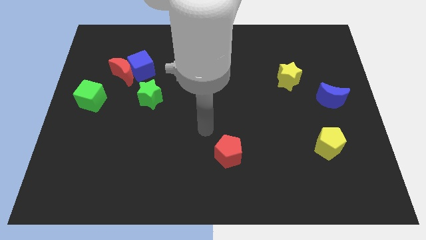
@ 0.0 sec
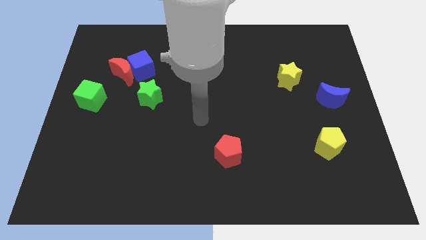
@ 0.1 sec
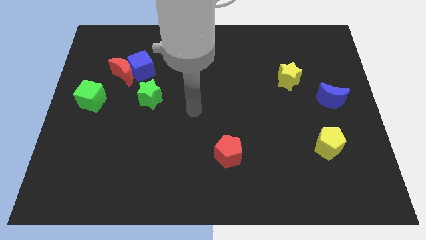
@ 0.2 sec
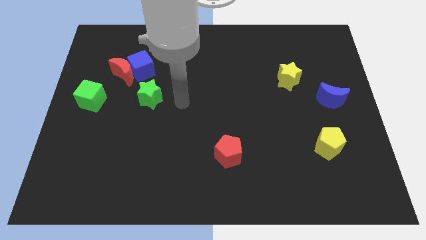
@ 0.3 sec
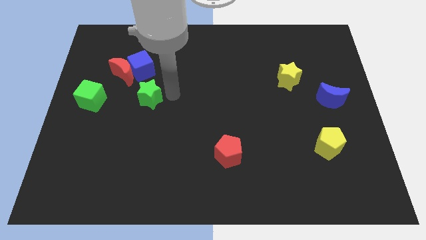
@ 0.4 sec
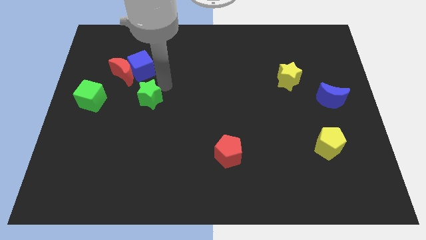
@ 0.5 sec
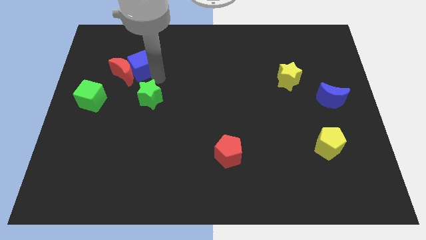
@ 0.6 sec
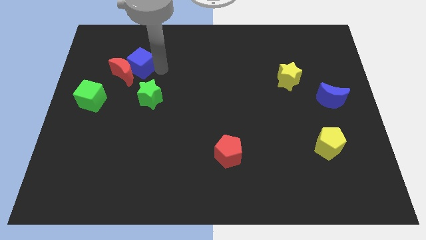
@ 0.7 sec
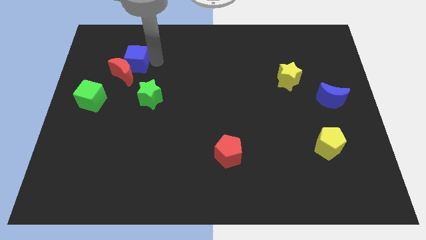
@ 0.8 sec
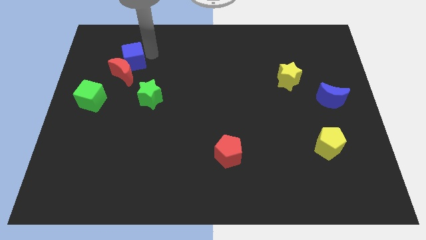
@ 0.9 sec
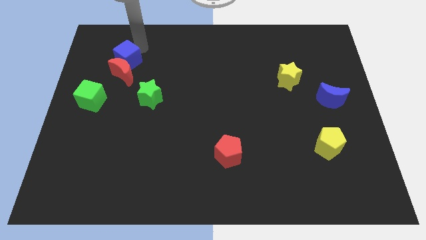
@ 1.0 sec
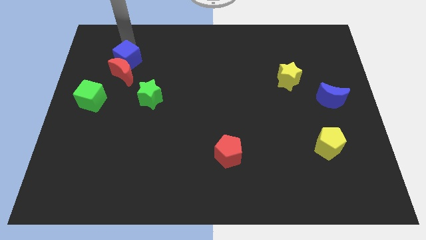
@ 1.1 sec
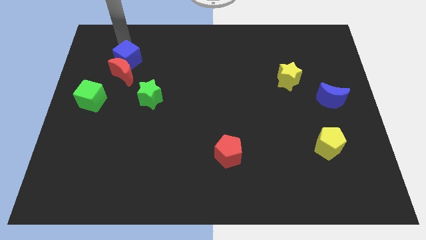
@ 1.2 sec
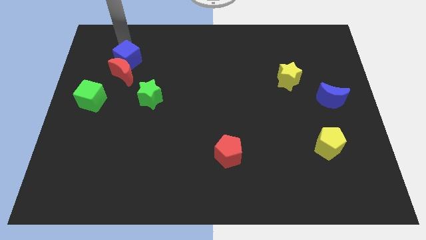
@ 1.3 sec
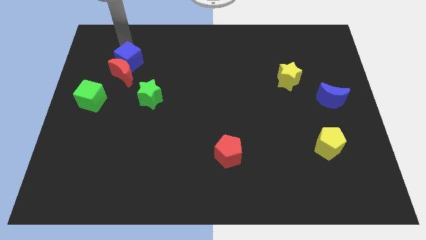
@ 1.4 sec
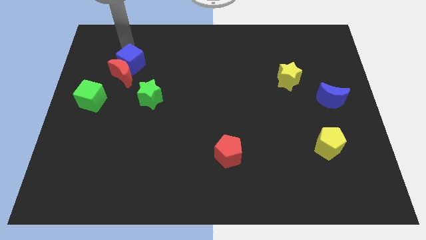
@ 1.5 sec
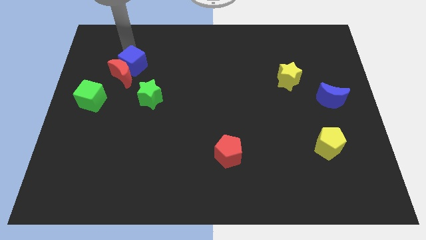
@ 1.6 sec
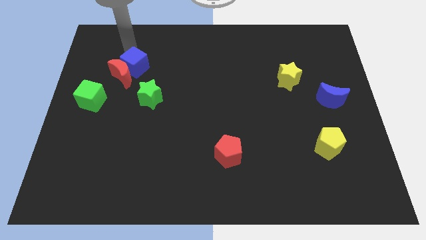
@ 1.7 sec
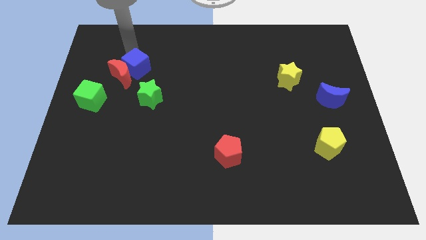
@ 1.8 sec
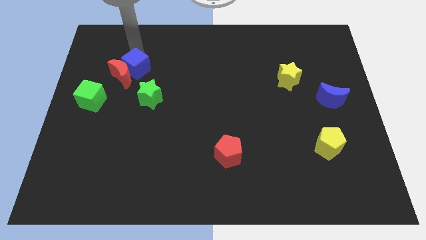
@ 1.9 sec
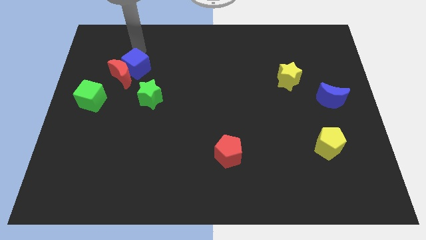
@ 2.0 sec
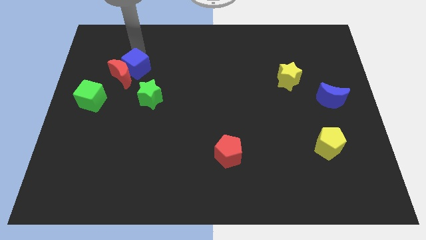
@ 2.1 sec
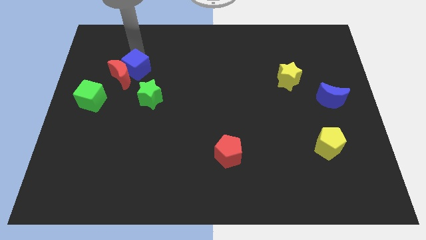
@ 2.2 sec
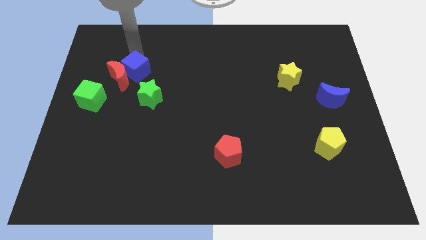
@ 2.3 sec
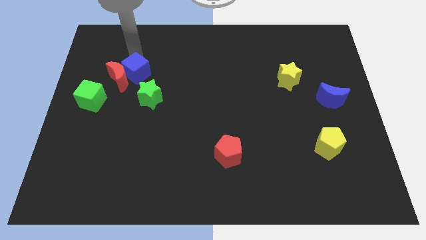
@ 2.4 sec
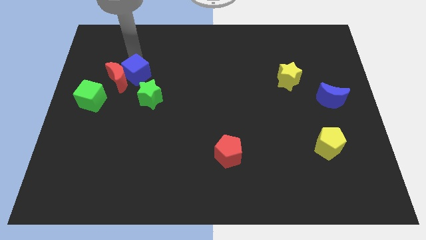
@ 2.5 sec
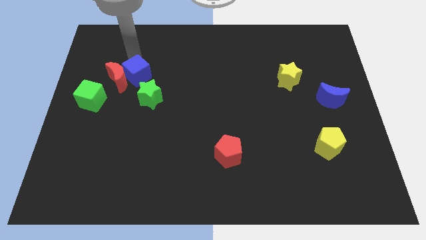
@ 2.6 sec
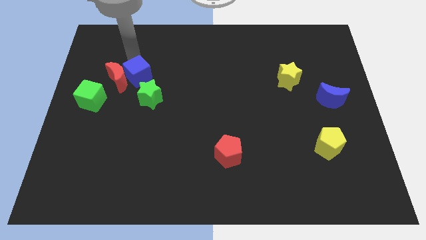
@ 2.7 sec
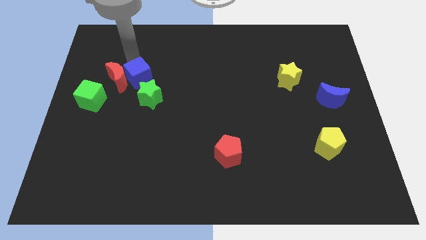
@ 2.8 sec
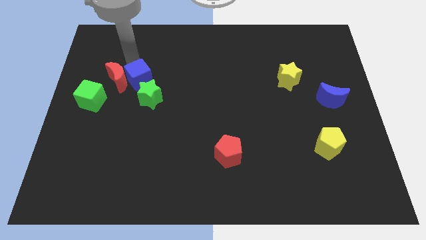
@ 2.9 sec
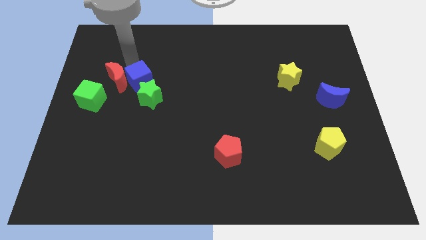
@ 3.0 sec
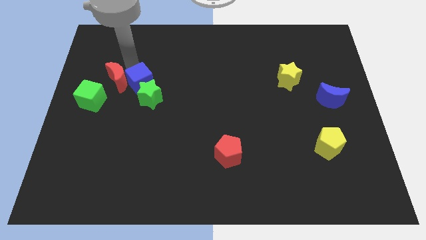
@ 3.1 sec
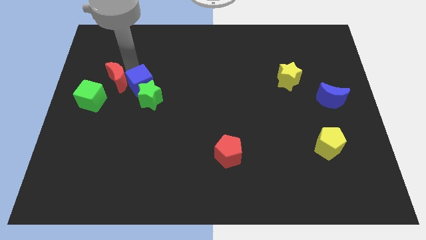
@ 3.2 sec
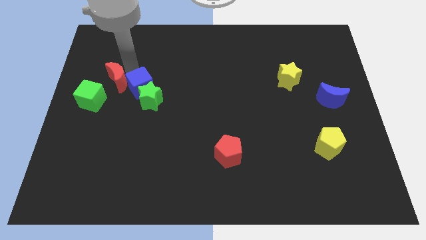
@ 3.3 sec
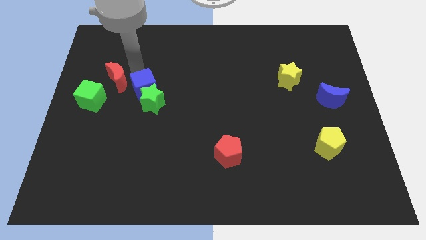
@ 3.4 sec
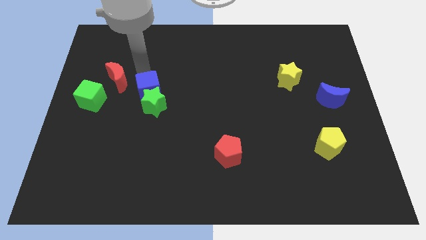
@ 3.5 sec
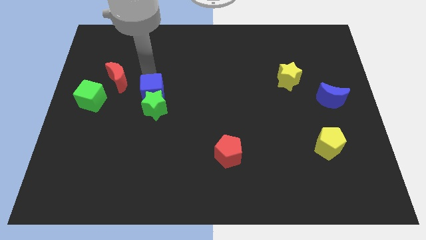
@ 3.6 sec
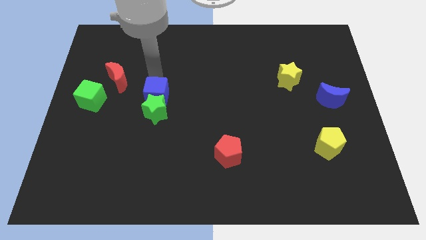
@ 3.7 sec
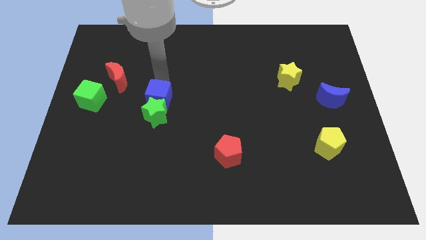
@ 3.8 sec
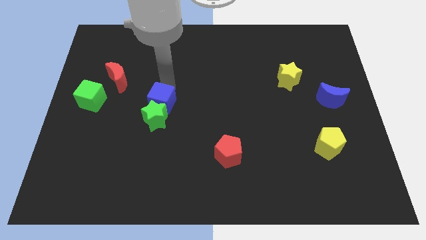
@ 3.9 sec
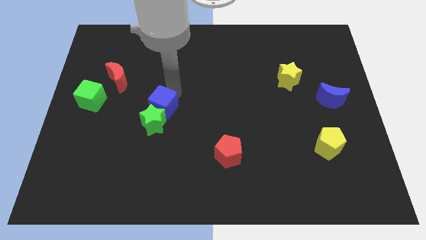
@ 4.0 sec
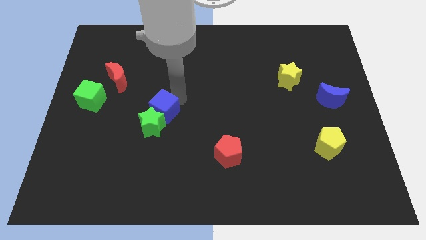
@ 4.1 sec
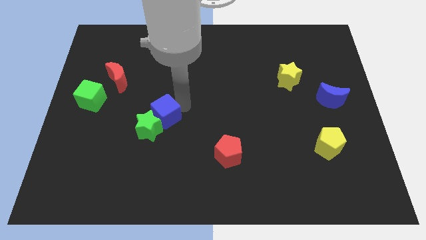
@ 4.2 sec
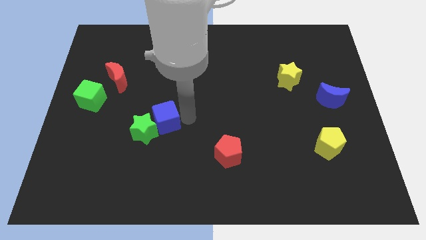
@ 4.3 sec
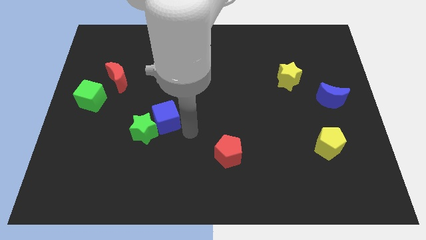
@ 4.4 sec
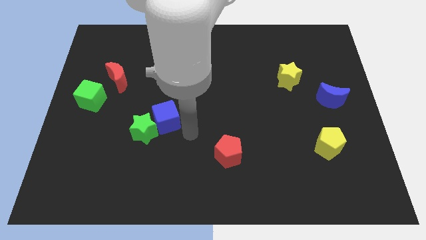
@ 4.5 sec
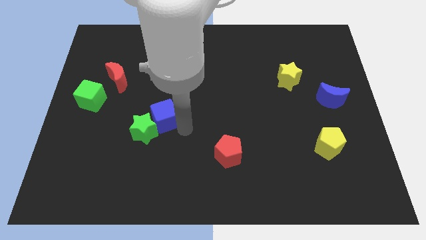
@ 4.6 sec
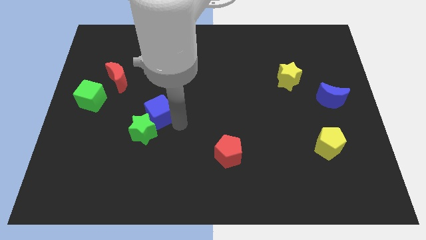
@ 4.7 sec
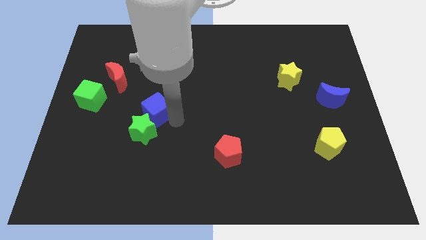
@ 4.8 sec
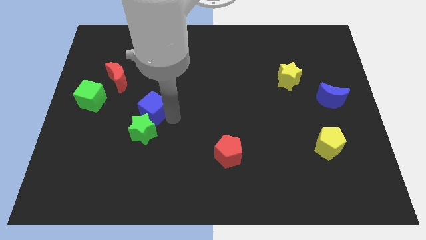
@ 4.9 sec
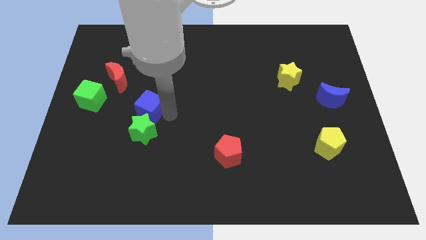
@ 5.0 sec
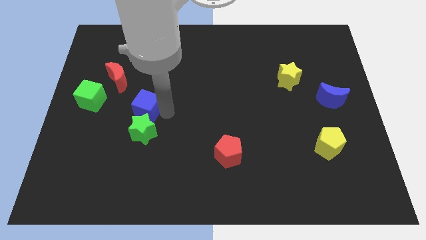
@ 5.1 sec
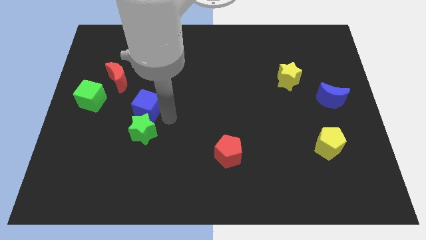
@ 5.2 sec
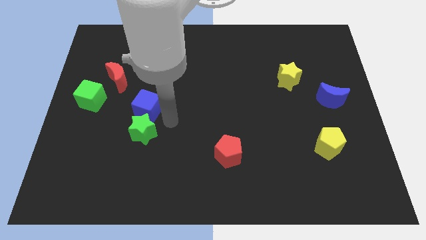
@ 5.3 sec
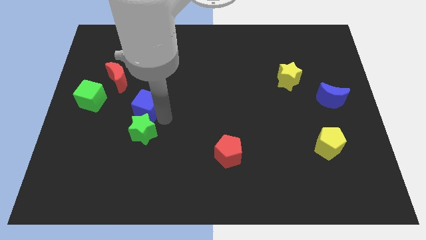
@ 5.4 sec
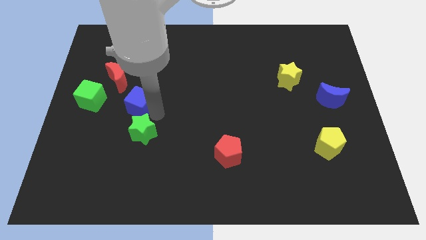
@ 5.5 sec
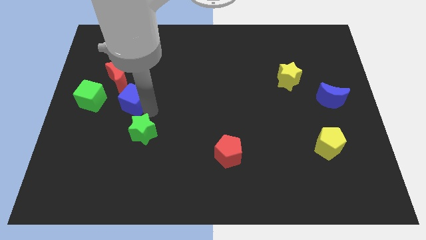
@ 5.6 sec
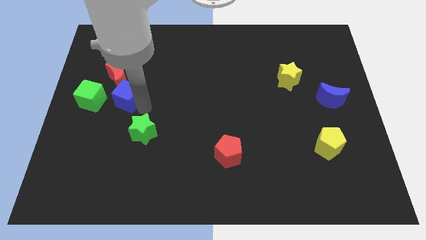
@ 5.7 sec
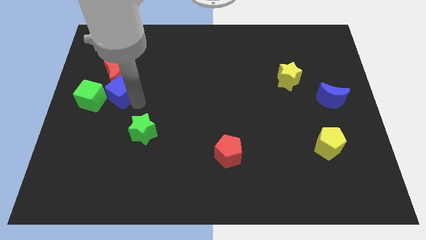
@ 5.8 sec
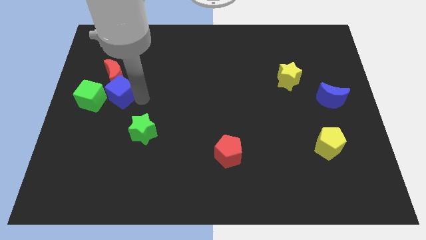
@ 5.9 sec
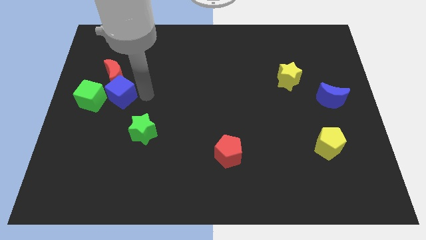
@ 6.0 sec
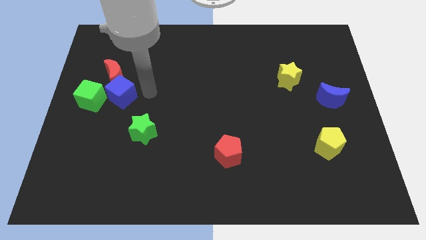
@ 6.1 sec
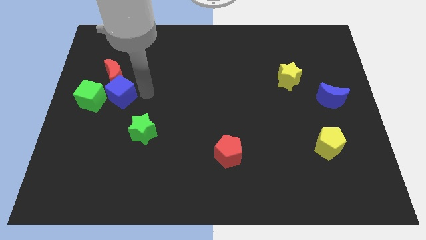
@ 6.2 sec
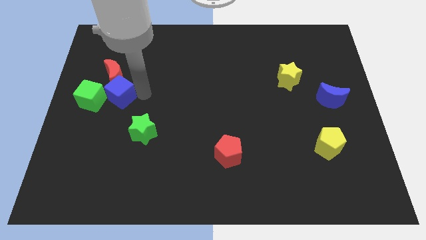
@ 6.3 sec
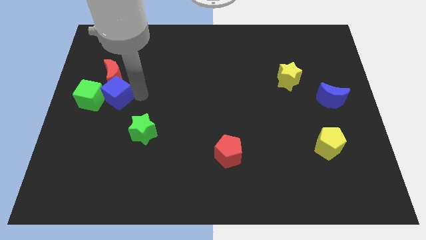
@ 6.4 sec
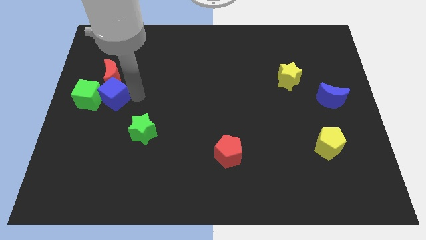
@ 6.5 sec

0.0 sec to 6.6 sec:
move the blue cube towards the green cube
